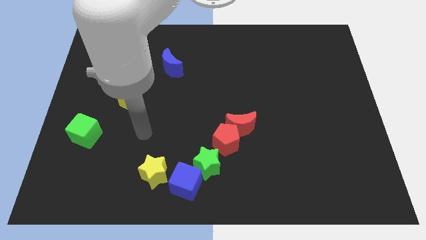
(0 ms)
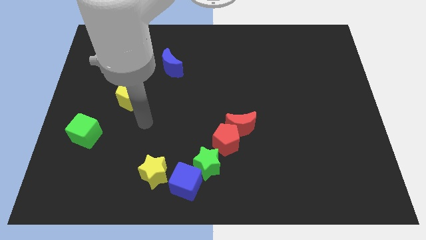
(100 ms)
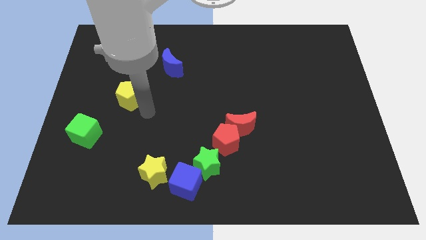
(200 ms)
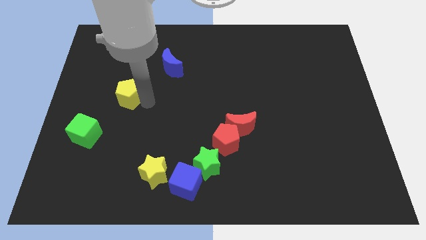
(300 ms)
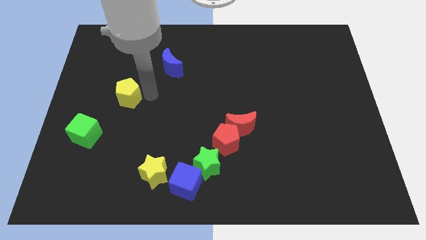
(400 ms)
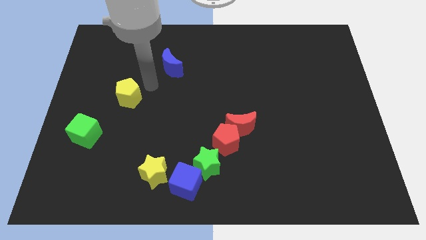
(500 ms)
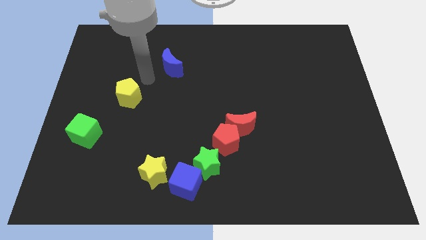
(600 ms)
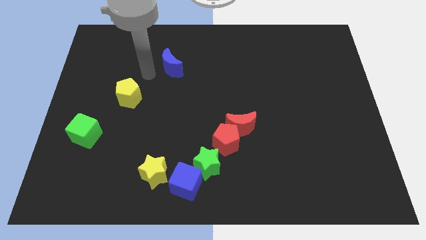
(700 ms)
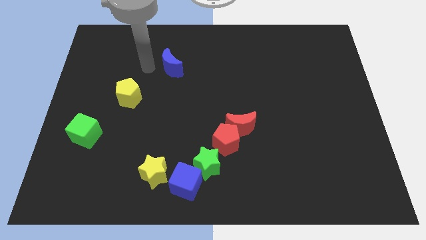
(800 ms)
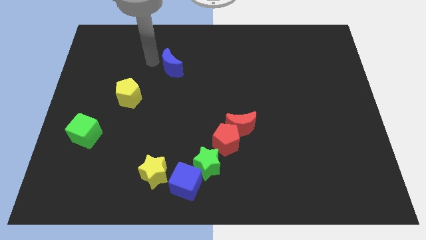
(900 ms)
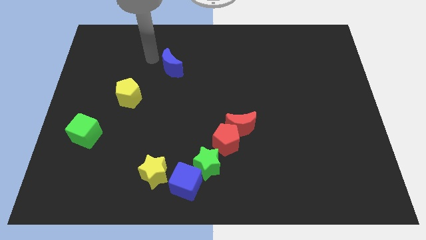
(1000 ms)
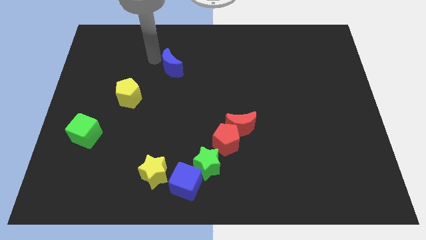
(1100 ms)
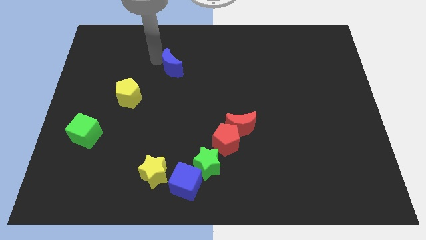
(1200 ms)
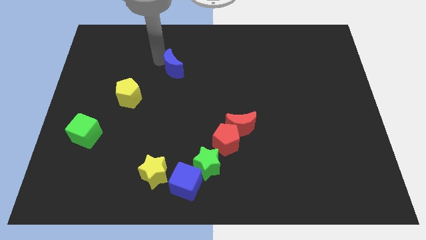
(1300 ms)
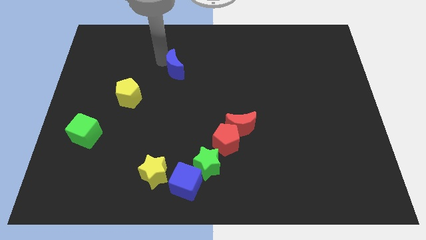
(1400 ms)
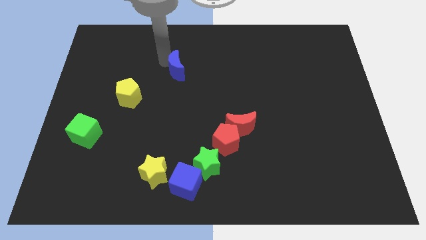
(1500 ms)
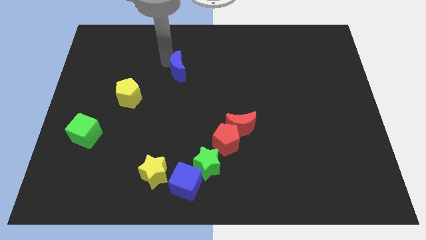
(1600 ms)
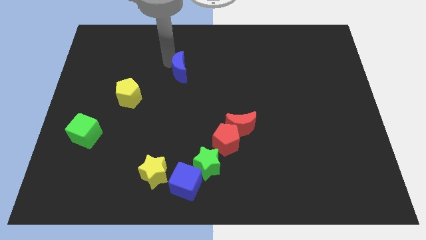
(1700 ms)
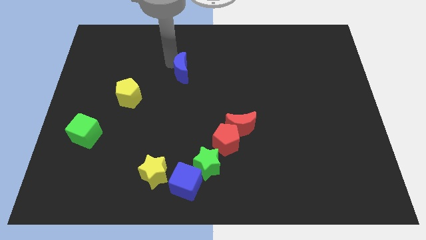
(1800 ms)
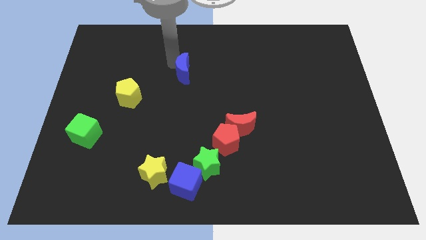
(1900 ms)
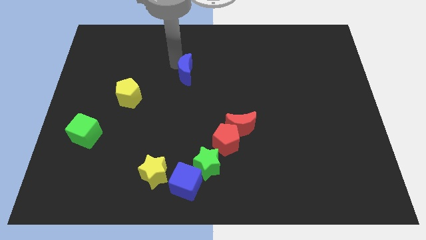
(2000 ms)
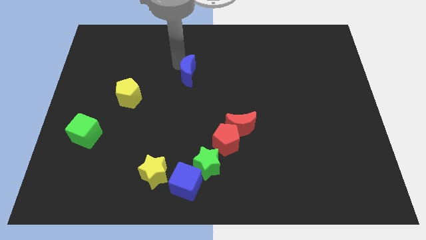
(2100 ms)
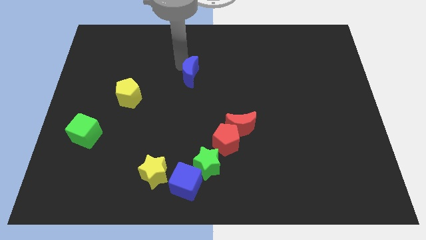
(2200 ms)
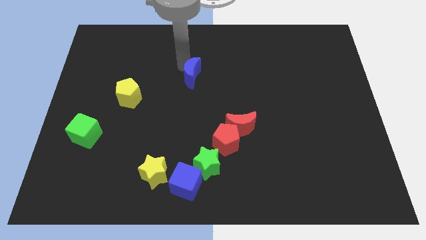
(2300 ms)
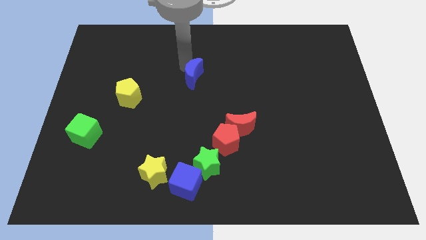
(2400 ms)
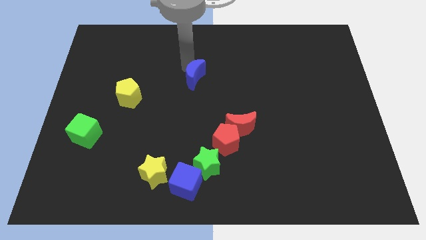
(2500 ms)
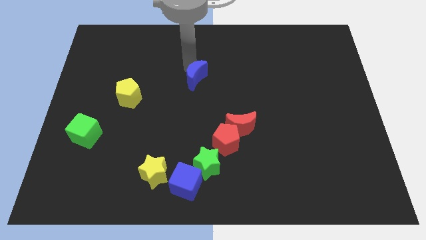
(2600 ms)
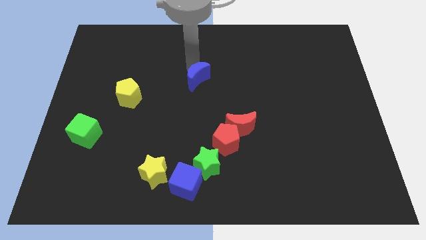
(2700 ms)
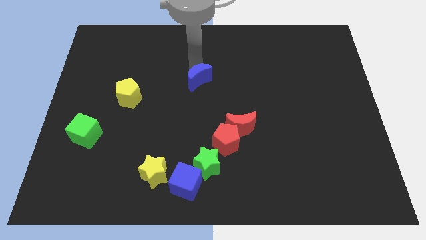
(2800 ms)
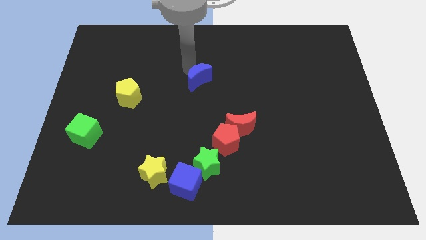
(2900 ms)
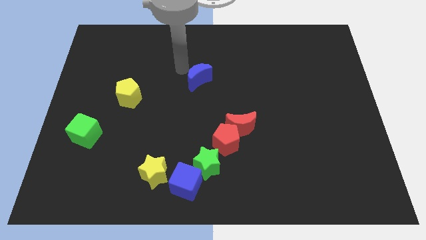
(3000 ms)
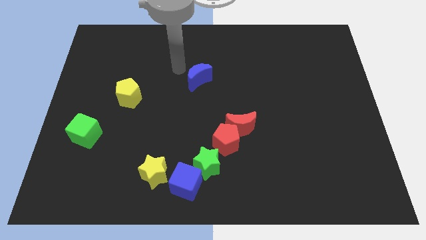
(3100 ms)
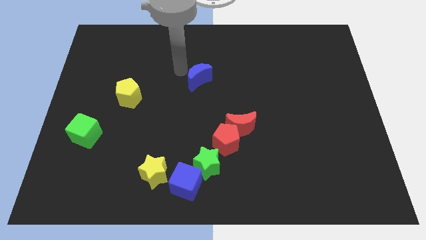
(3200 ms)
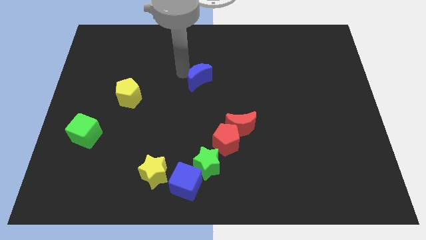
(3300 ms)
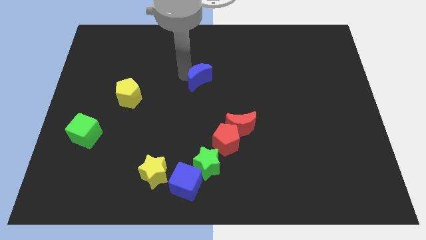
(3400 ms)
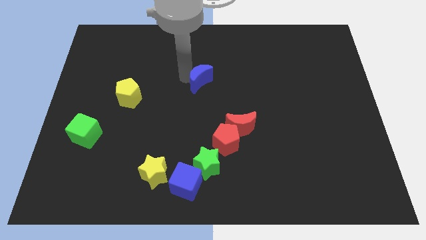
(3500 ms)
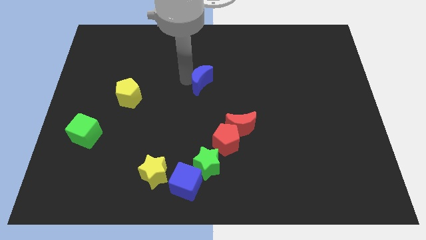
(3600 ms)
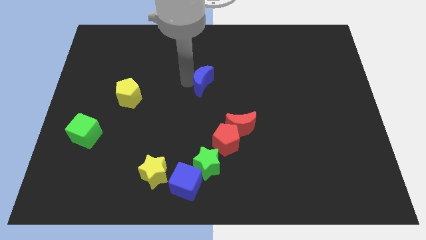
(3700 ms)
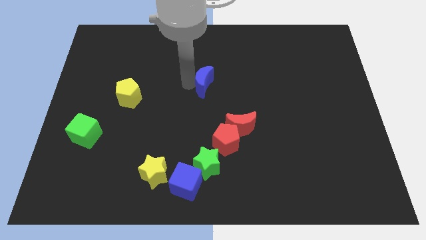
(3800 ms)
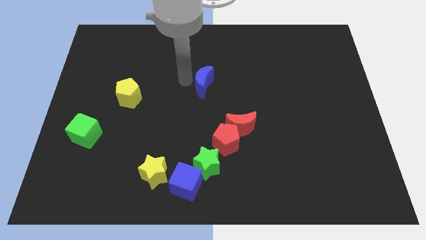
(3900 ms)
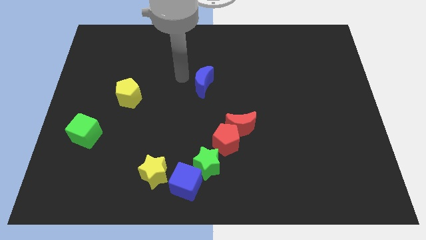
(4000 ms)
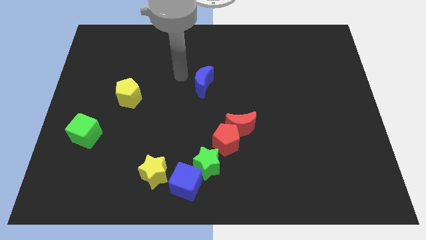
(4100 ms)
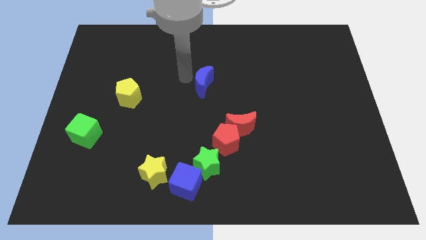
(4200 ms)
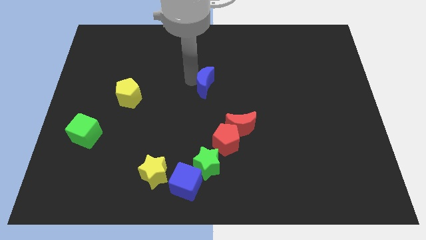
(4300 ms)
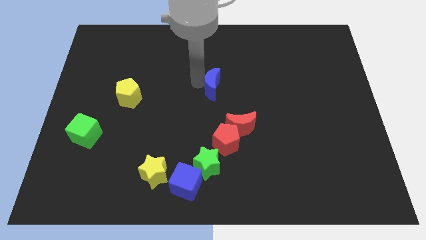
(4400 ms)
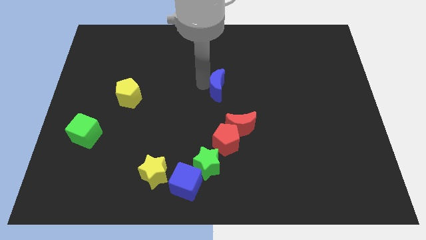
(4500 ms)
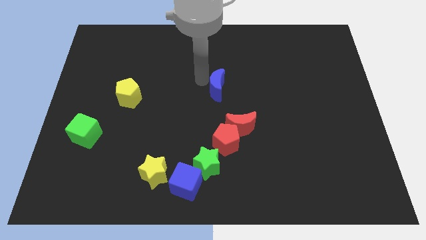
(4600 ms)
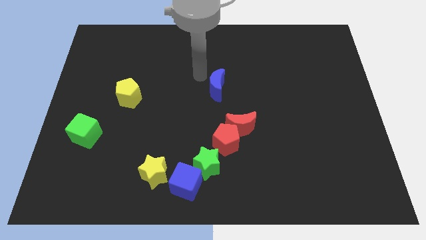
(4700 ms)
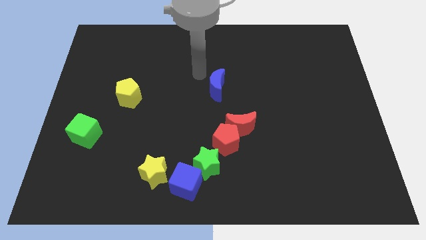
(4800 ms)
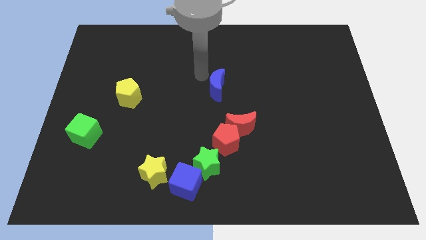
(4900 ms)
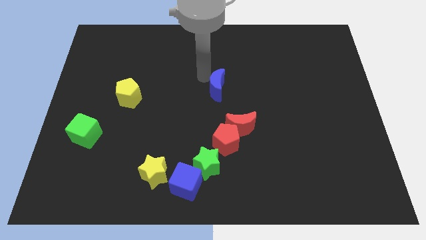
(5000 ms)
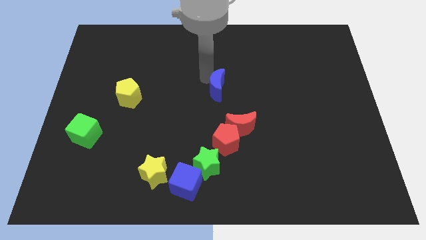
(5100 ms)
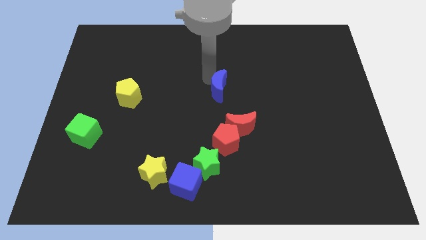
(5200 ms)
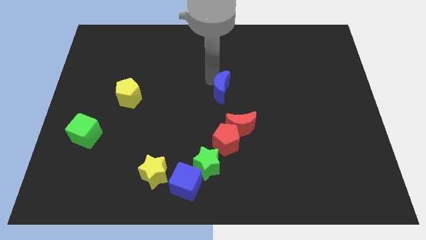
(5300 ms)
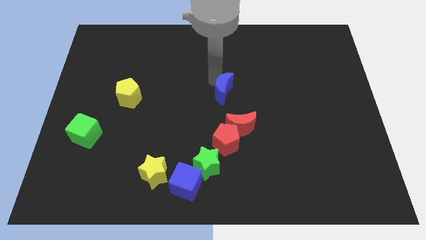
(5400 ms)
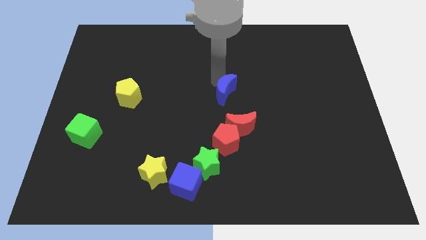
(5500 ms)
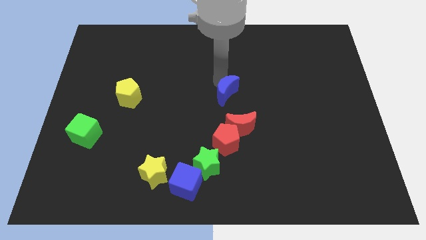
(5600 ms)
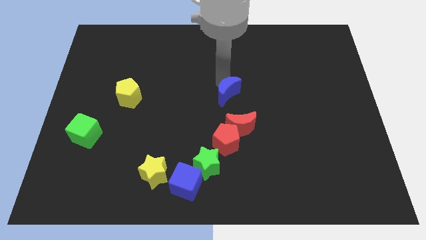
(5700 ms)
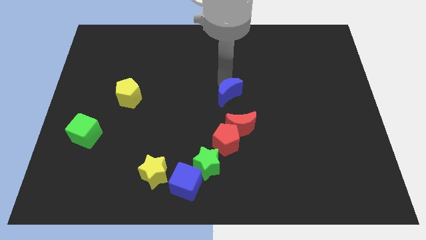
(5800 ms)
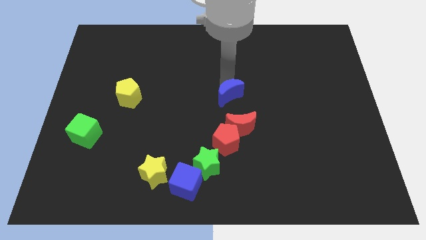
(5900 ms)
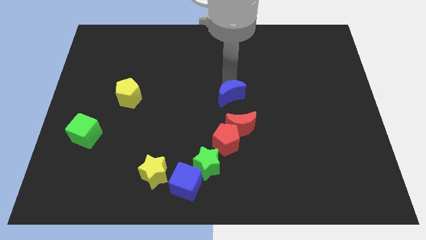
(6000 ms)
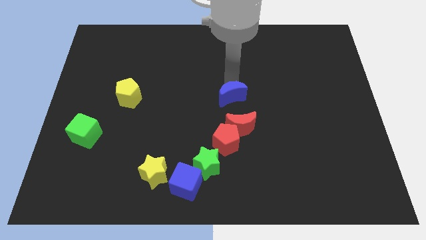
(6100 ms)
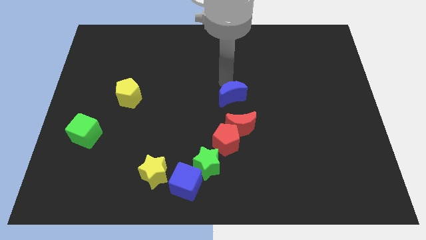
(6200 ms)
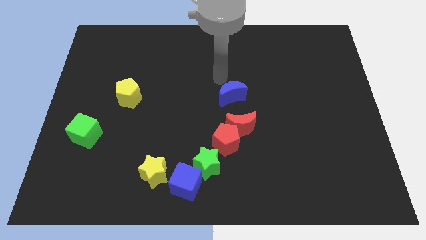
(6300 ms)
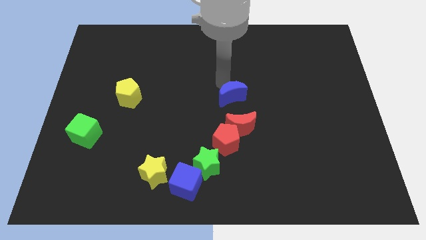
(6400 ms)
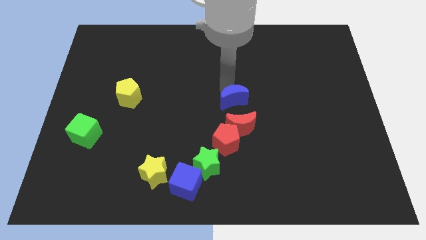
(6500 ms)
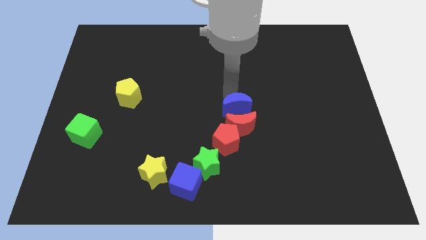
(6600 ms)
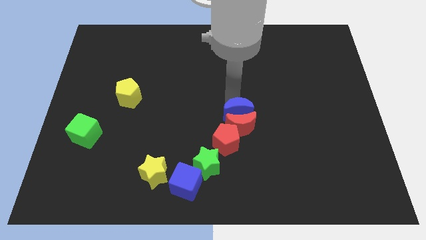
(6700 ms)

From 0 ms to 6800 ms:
slide the blue moon to the top right of the red pentagon

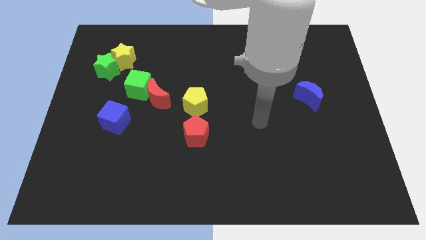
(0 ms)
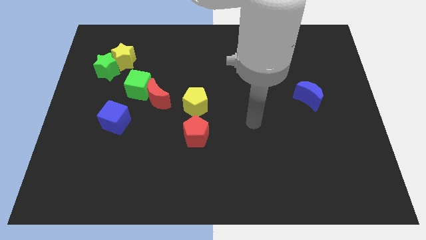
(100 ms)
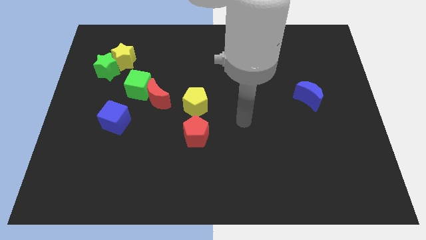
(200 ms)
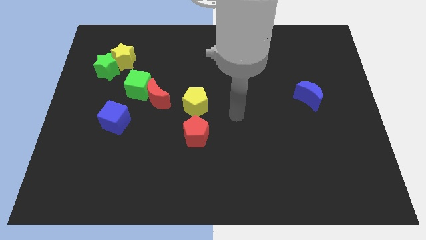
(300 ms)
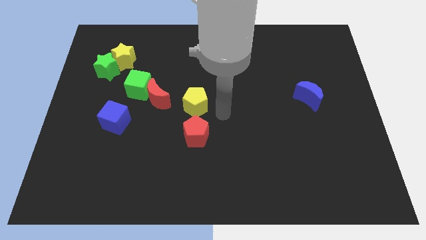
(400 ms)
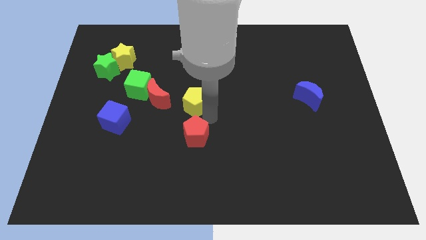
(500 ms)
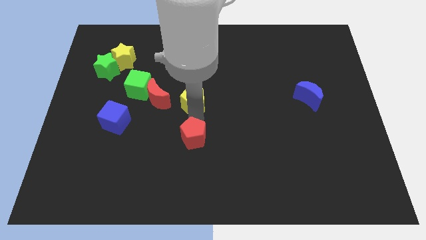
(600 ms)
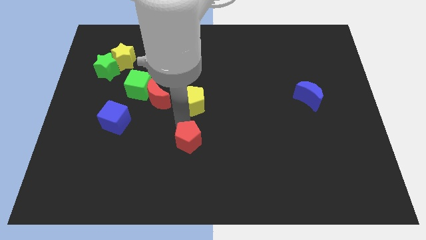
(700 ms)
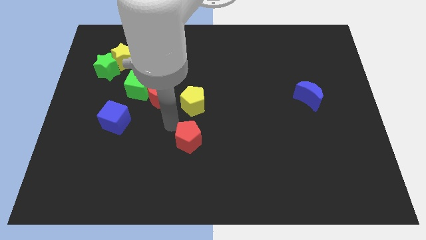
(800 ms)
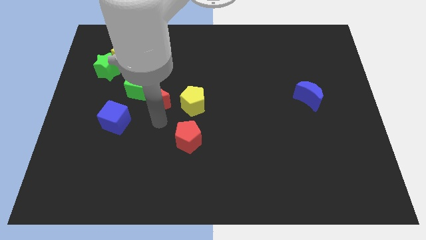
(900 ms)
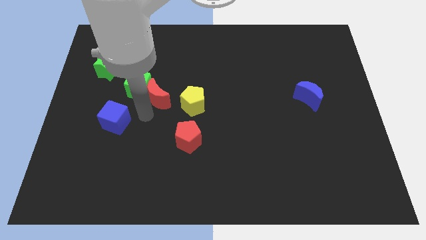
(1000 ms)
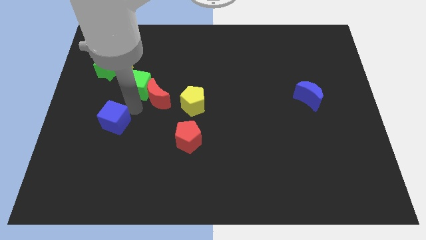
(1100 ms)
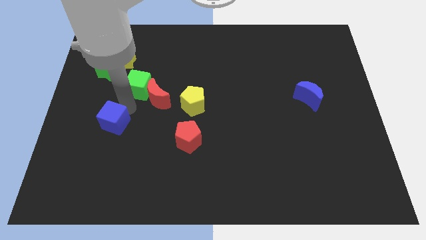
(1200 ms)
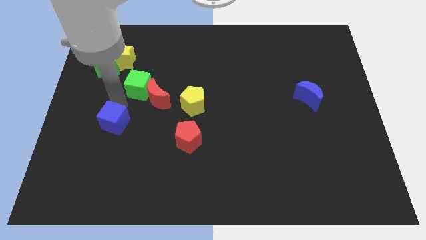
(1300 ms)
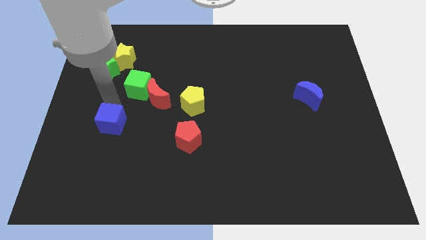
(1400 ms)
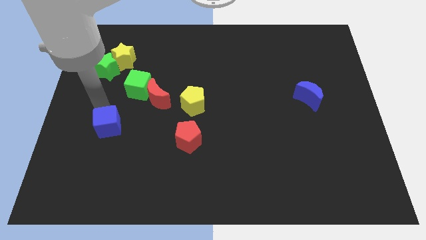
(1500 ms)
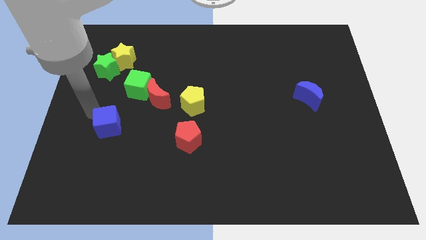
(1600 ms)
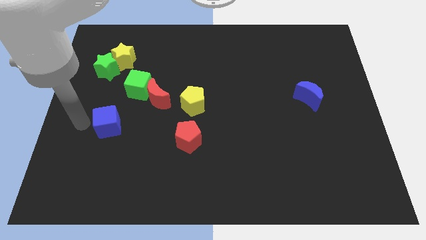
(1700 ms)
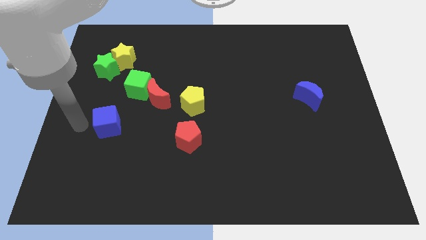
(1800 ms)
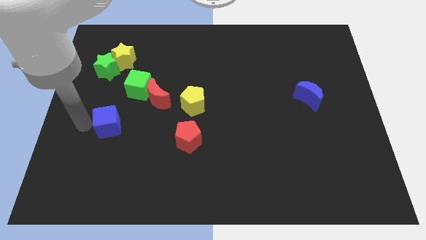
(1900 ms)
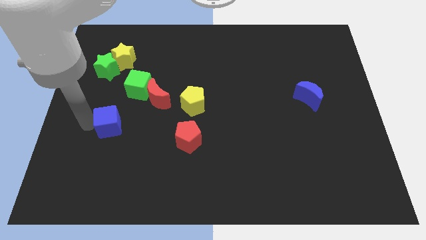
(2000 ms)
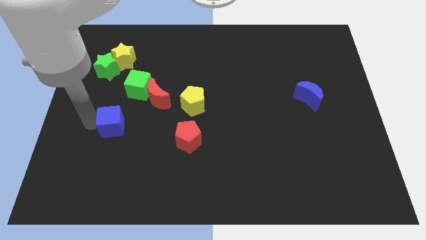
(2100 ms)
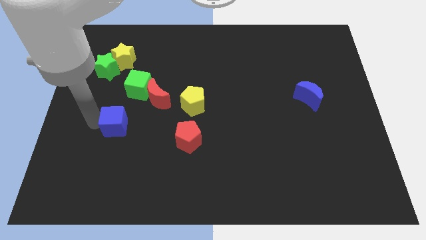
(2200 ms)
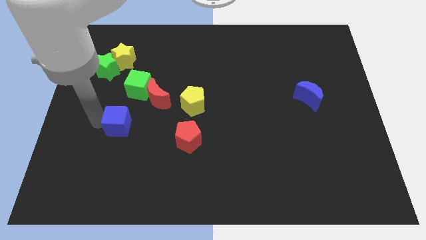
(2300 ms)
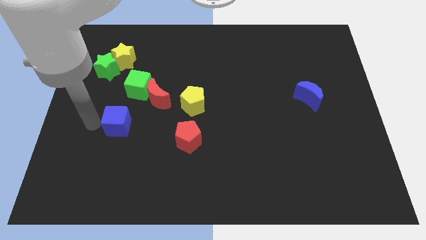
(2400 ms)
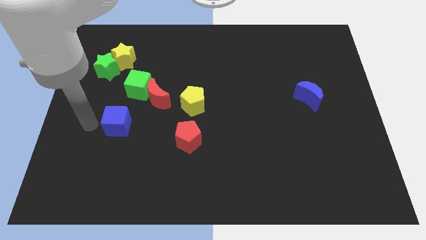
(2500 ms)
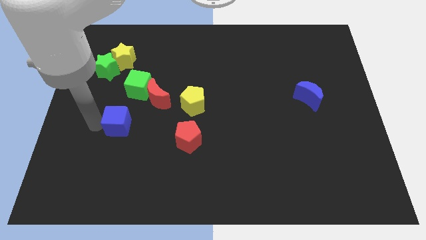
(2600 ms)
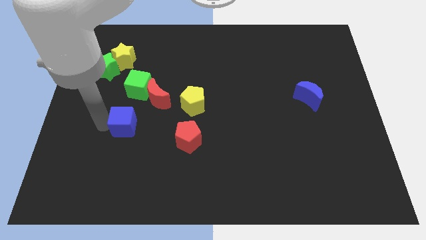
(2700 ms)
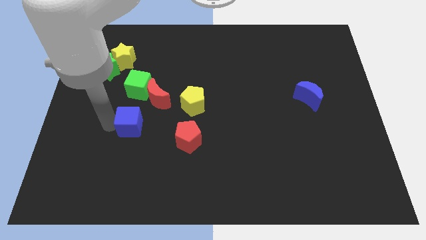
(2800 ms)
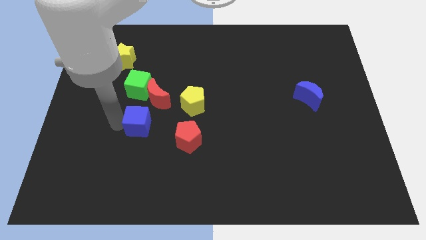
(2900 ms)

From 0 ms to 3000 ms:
put the blue cube below the red moon
